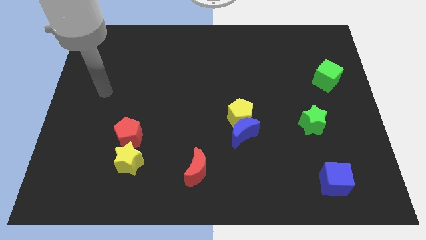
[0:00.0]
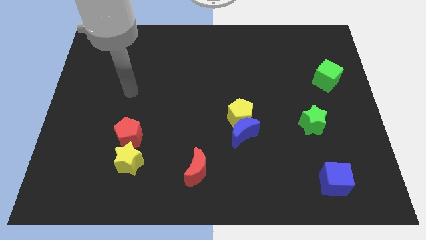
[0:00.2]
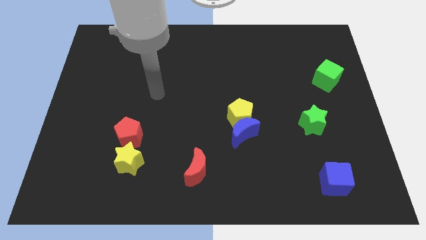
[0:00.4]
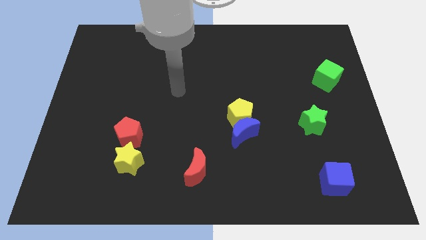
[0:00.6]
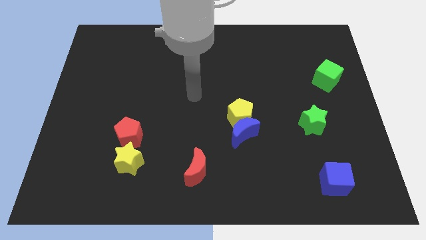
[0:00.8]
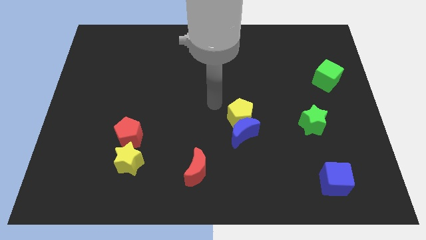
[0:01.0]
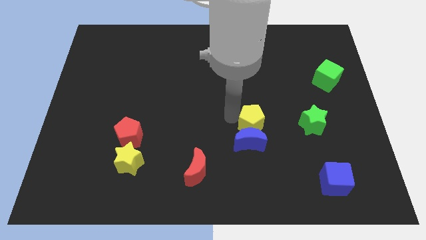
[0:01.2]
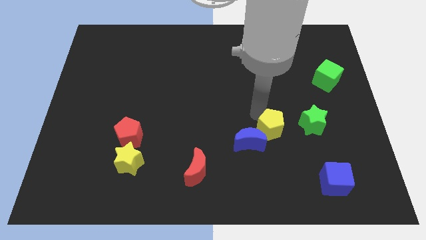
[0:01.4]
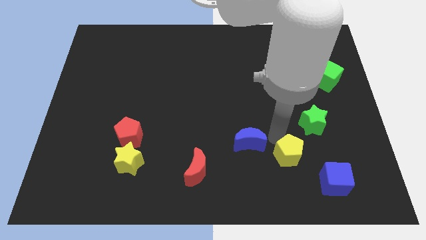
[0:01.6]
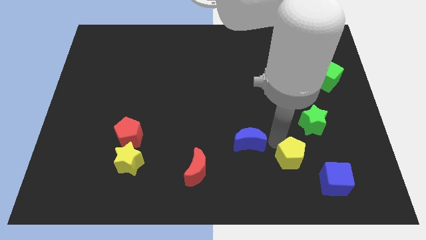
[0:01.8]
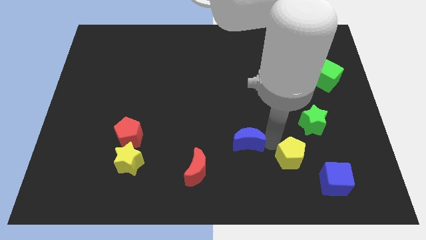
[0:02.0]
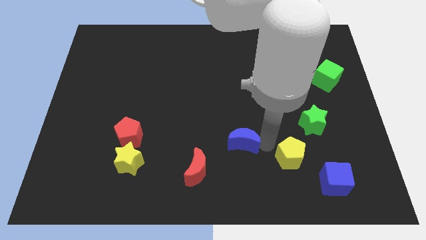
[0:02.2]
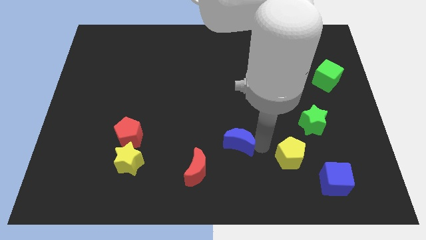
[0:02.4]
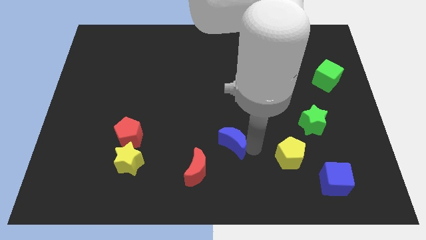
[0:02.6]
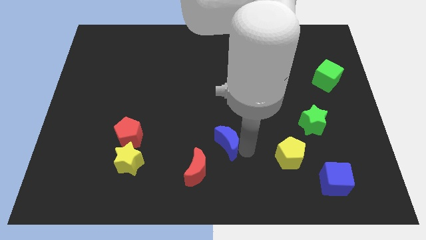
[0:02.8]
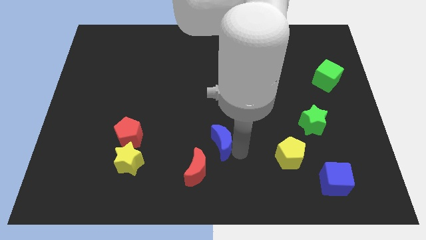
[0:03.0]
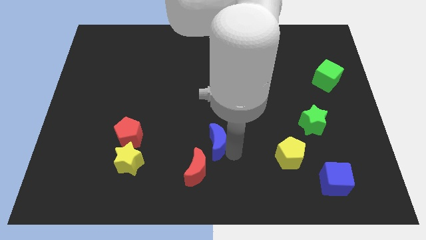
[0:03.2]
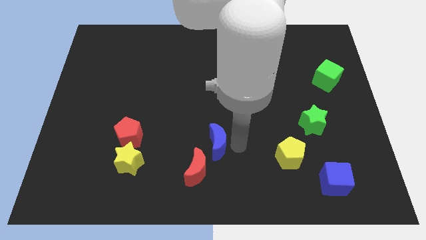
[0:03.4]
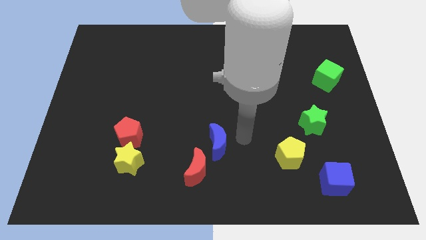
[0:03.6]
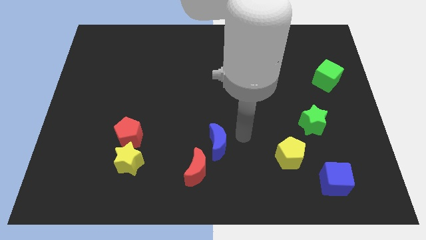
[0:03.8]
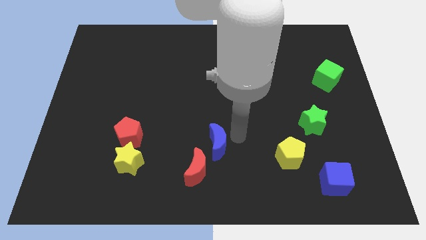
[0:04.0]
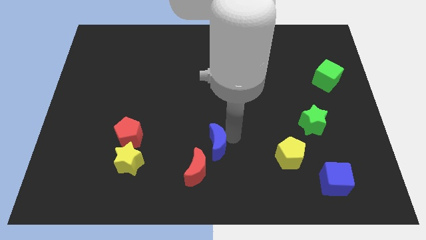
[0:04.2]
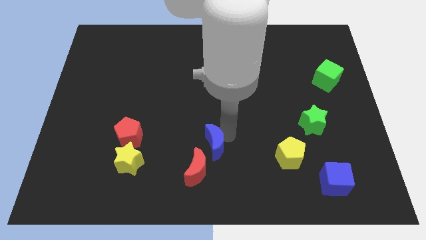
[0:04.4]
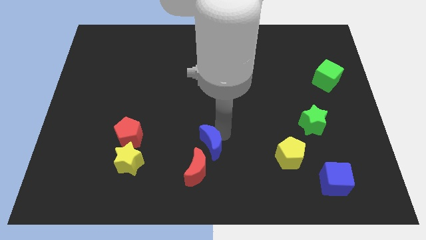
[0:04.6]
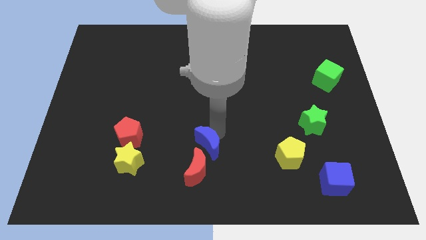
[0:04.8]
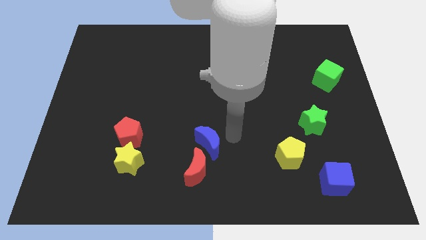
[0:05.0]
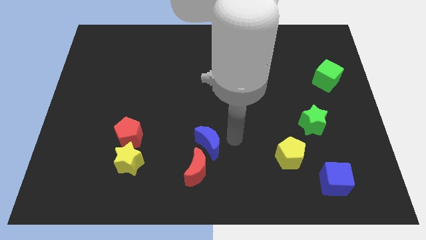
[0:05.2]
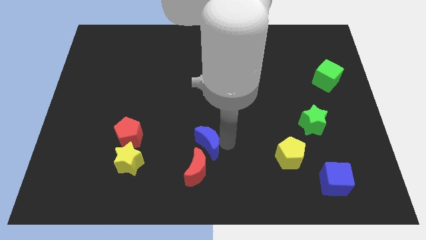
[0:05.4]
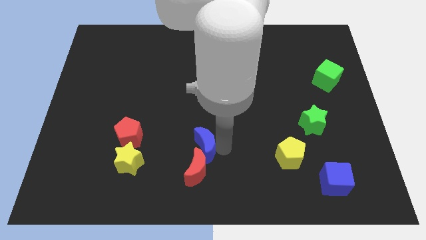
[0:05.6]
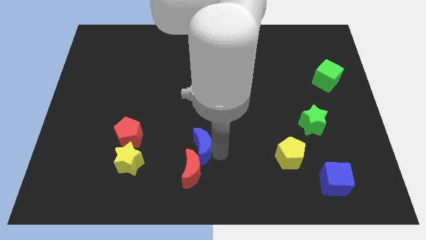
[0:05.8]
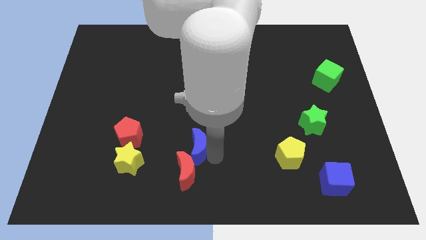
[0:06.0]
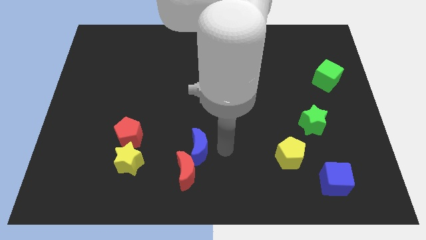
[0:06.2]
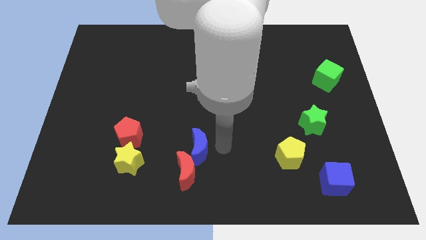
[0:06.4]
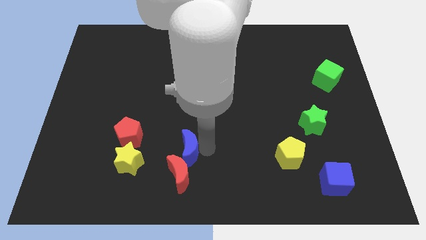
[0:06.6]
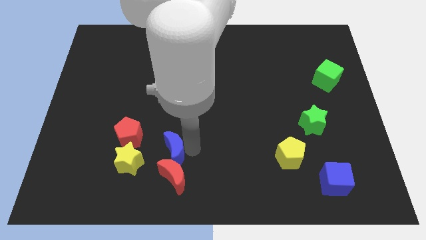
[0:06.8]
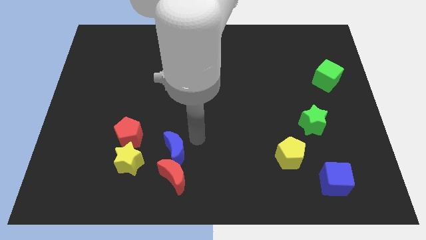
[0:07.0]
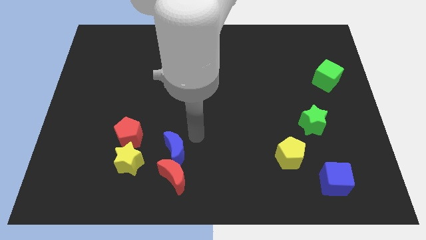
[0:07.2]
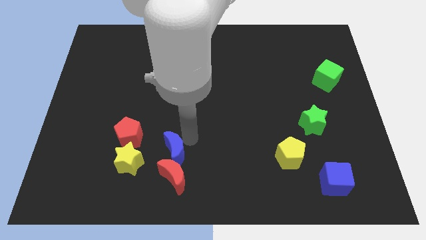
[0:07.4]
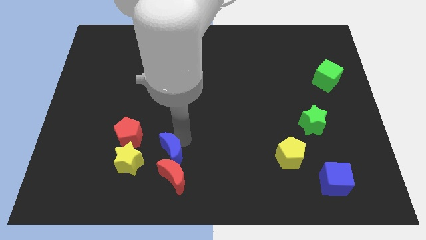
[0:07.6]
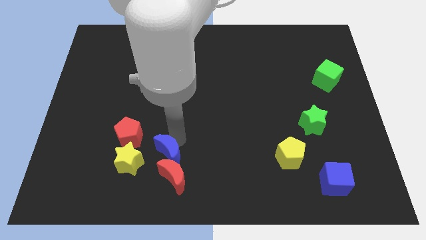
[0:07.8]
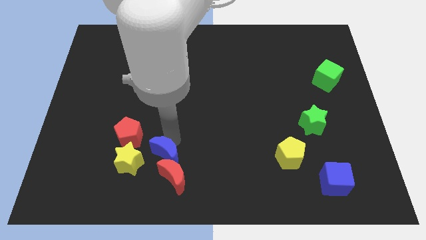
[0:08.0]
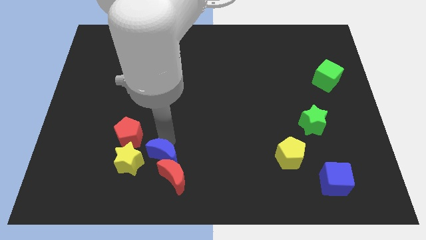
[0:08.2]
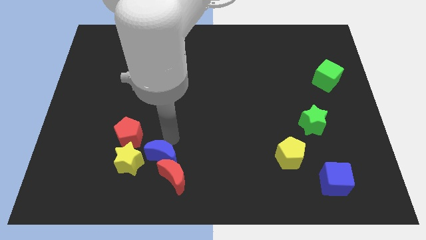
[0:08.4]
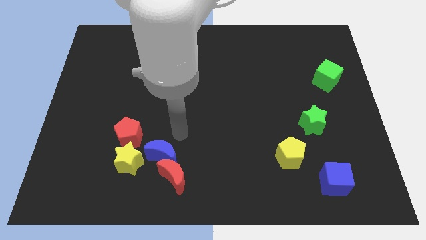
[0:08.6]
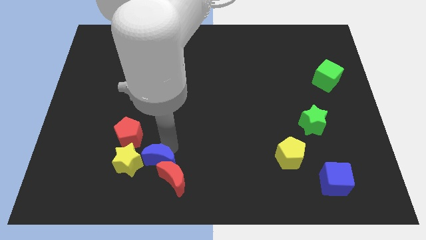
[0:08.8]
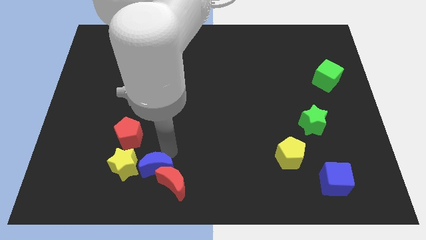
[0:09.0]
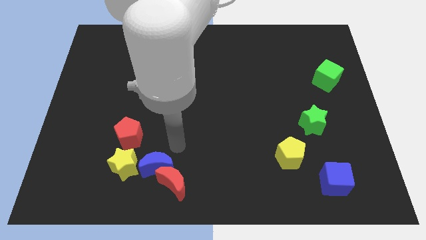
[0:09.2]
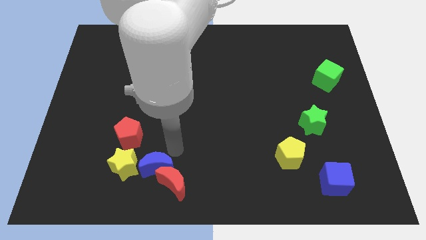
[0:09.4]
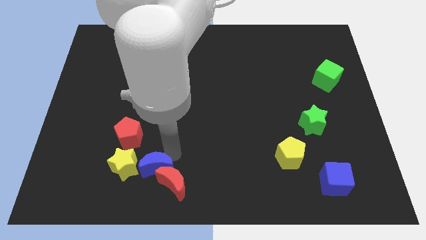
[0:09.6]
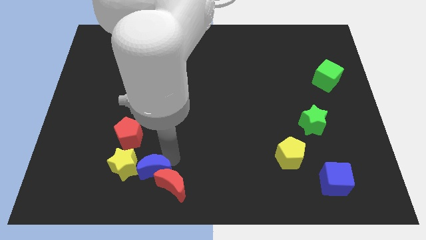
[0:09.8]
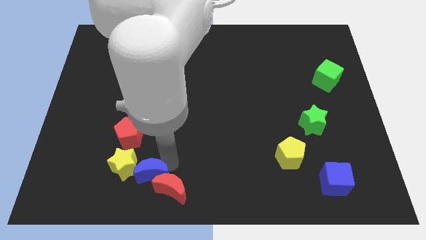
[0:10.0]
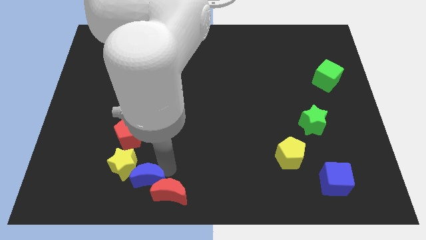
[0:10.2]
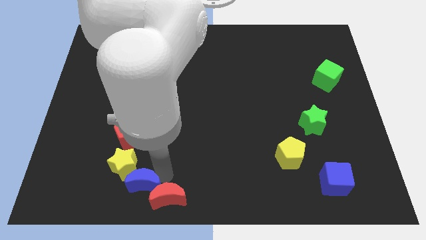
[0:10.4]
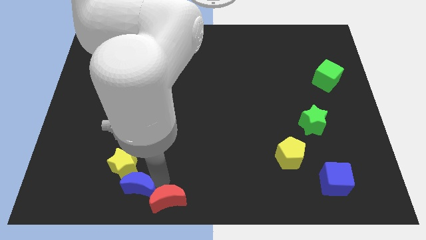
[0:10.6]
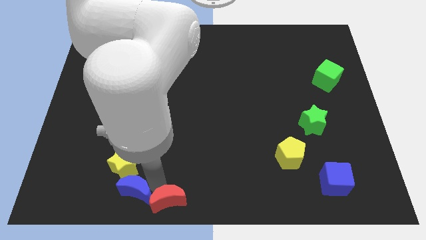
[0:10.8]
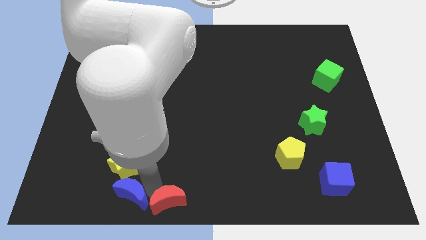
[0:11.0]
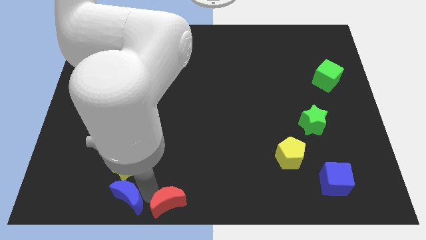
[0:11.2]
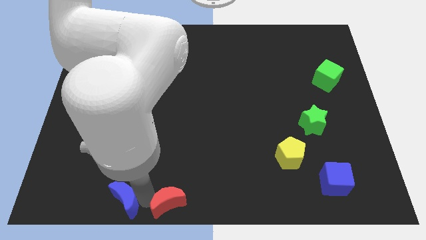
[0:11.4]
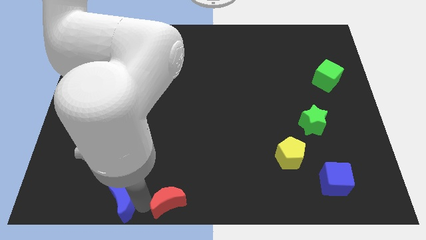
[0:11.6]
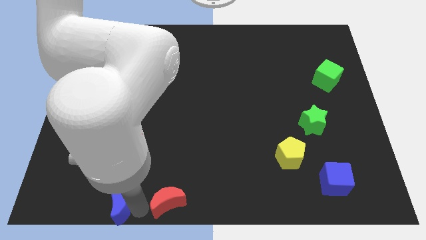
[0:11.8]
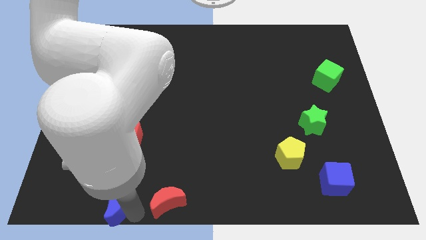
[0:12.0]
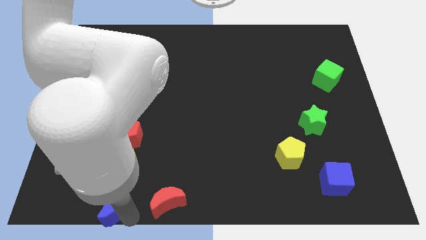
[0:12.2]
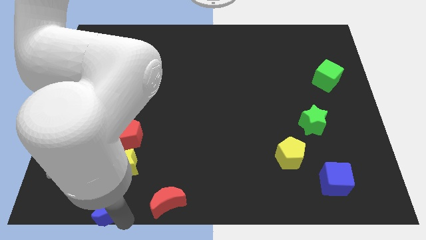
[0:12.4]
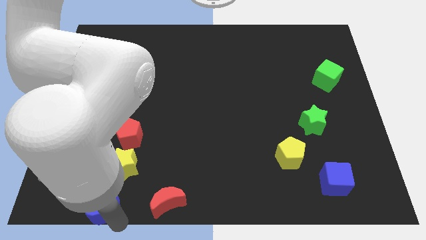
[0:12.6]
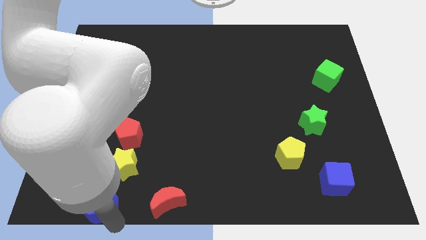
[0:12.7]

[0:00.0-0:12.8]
put the blue moon to the bottom left of the yellow star
